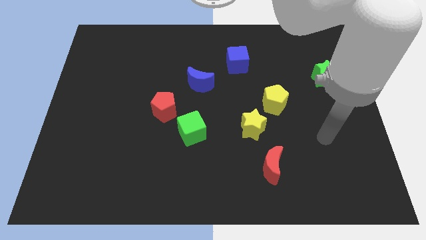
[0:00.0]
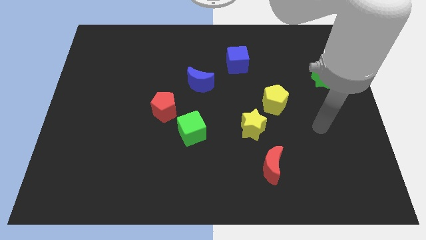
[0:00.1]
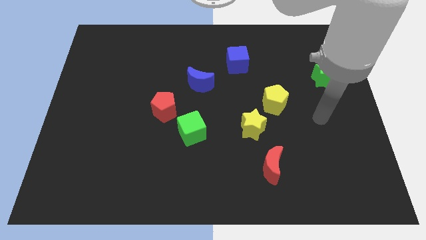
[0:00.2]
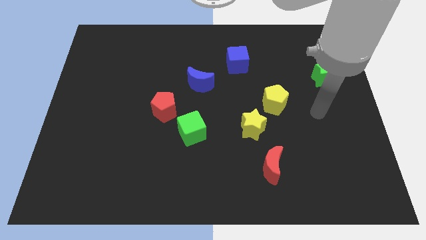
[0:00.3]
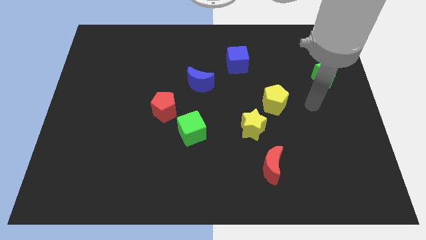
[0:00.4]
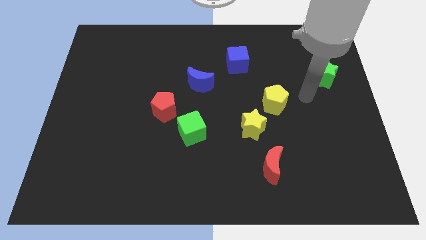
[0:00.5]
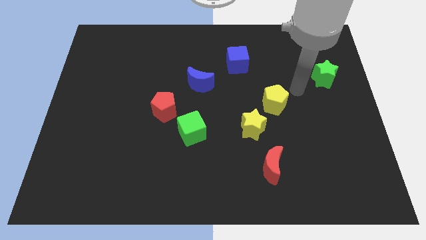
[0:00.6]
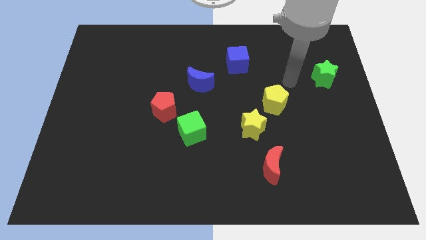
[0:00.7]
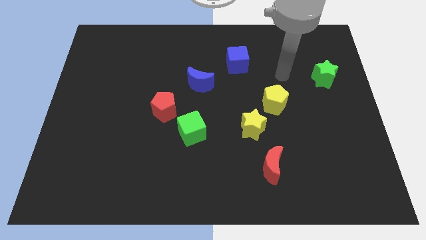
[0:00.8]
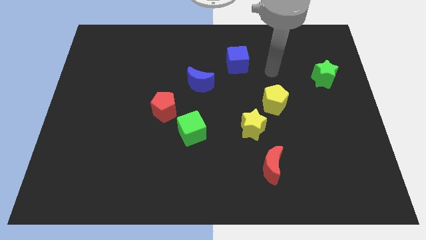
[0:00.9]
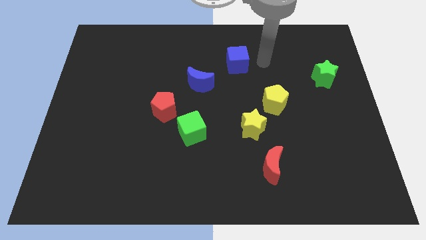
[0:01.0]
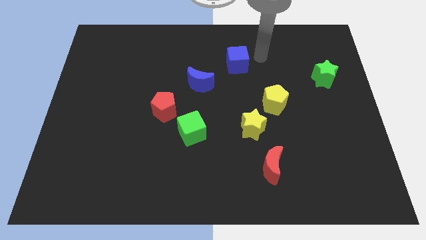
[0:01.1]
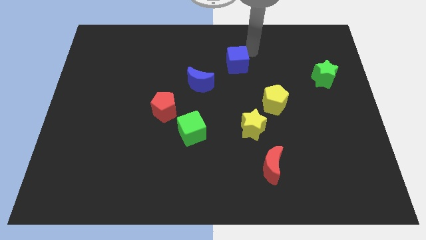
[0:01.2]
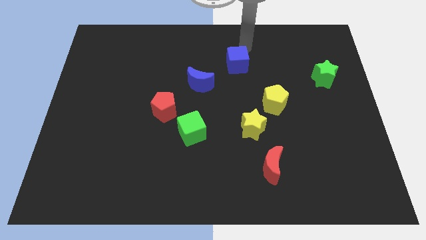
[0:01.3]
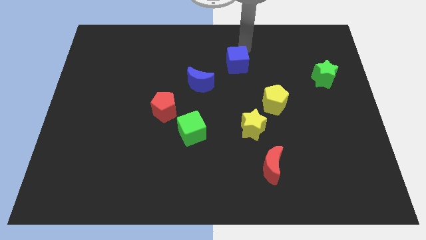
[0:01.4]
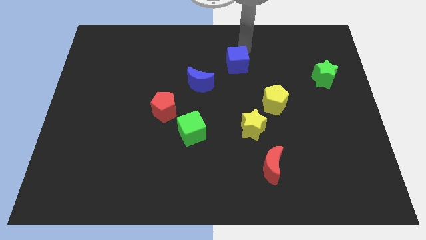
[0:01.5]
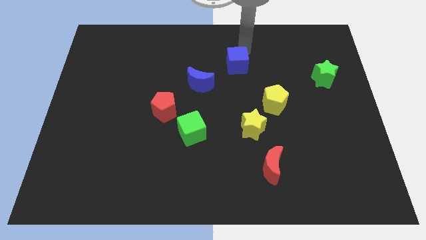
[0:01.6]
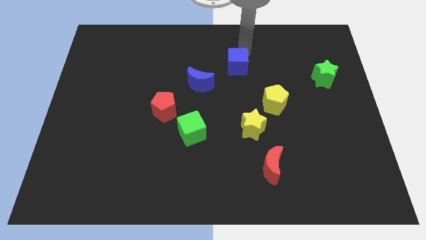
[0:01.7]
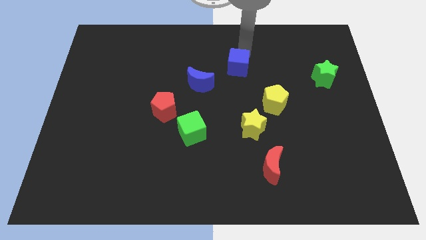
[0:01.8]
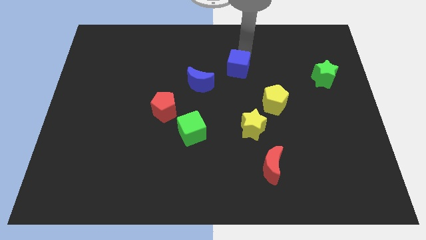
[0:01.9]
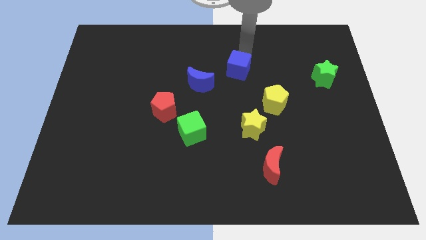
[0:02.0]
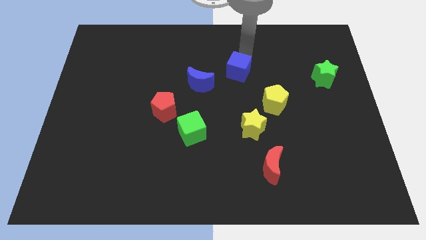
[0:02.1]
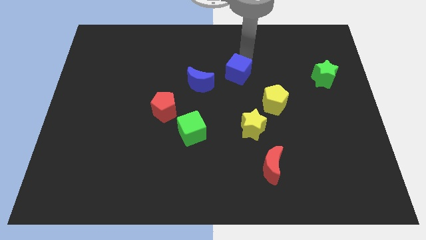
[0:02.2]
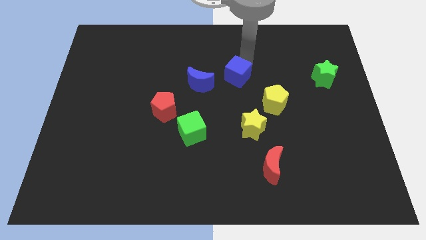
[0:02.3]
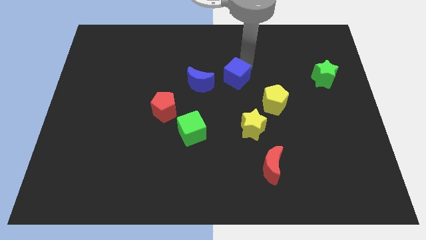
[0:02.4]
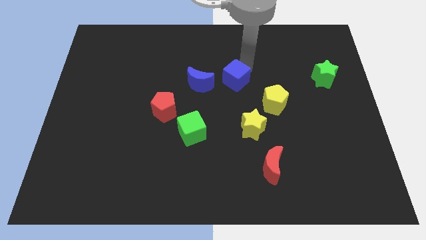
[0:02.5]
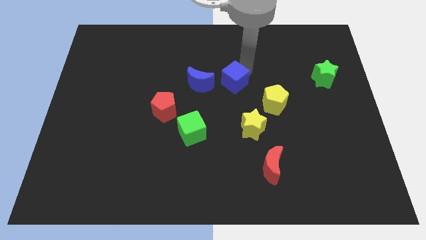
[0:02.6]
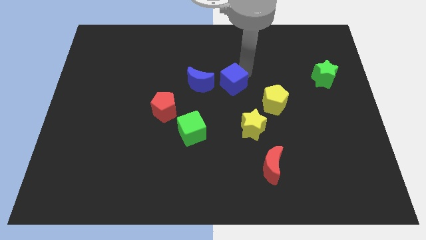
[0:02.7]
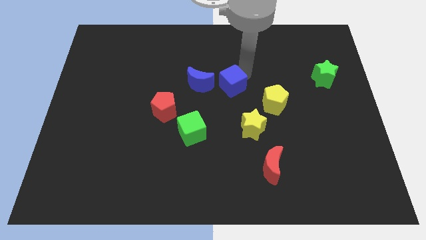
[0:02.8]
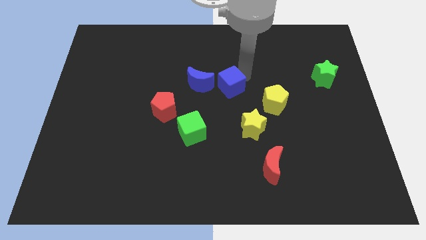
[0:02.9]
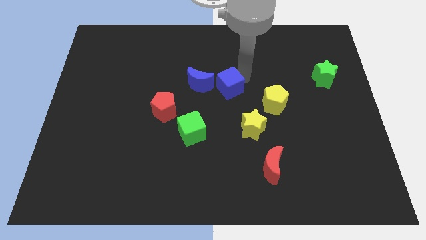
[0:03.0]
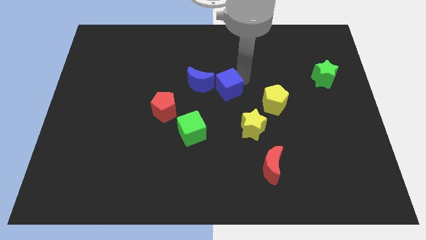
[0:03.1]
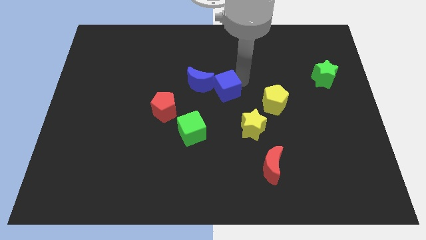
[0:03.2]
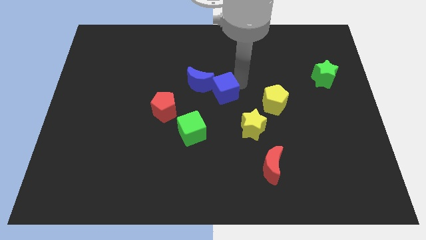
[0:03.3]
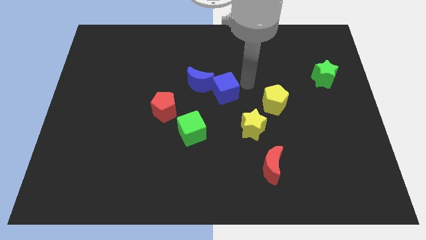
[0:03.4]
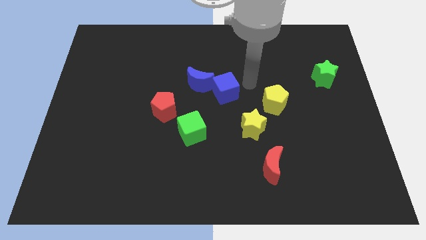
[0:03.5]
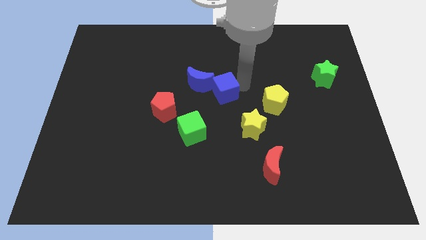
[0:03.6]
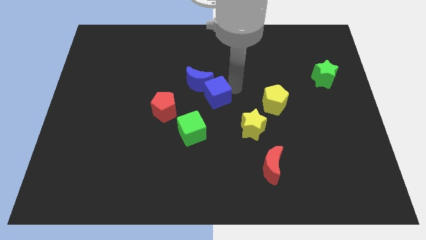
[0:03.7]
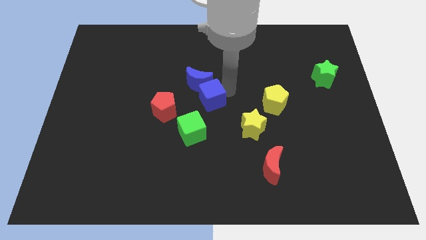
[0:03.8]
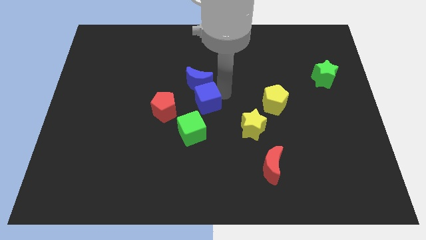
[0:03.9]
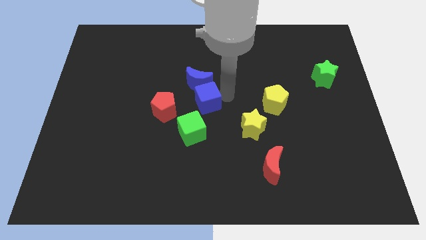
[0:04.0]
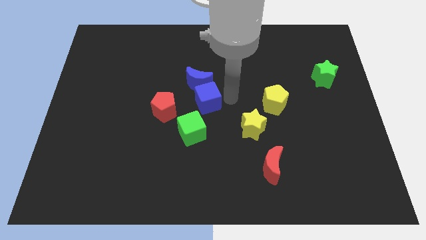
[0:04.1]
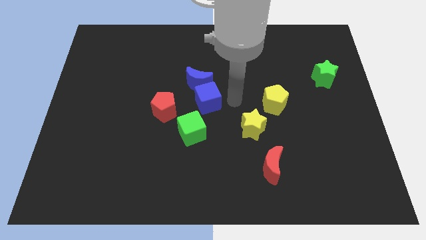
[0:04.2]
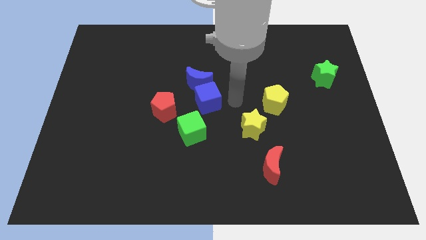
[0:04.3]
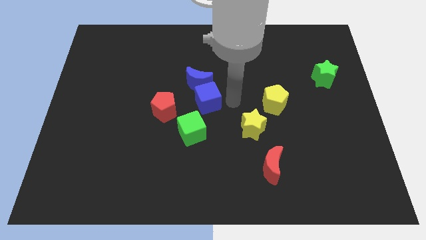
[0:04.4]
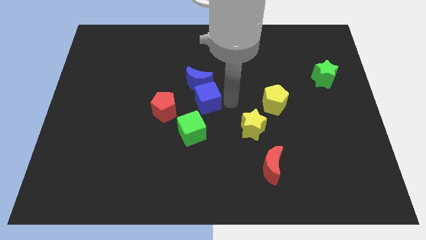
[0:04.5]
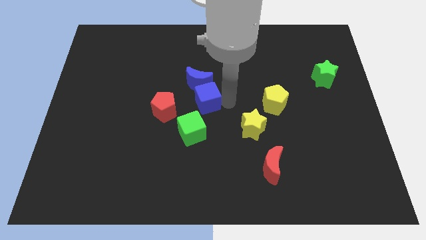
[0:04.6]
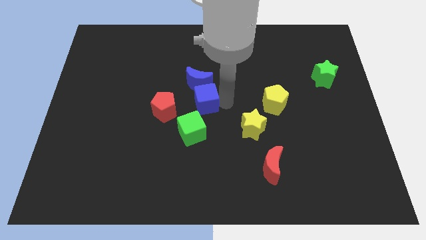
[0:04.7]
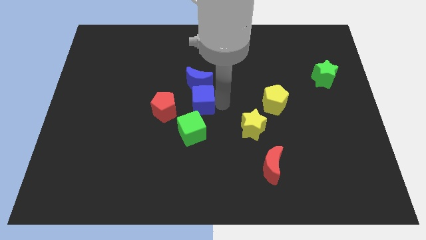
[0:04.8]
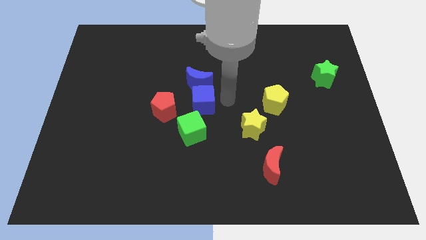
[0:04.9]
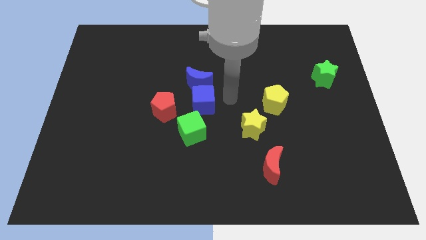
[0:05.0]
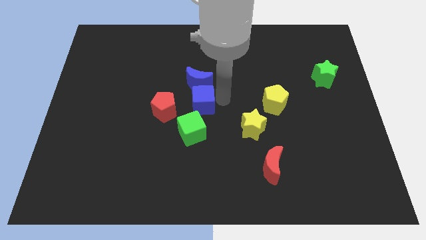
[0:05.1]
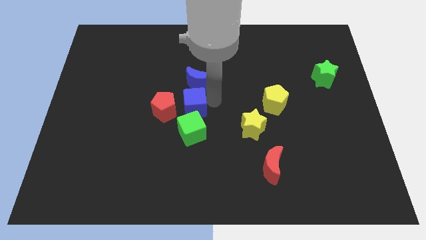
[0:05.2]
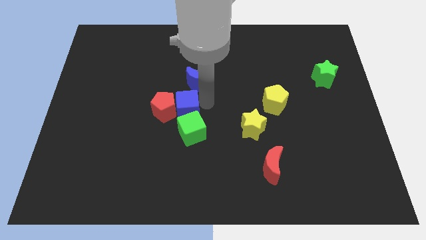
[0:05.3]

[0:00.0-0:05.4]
put the blue cube next to the red pentagon

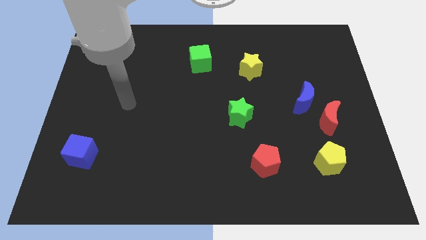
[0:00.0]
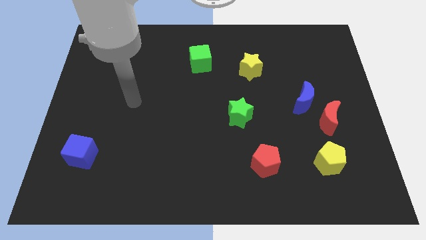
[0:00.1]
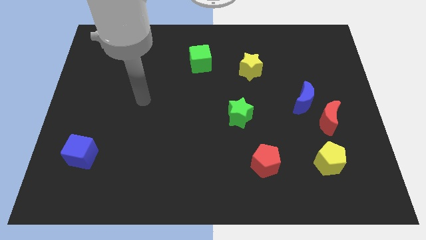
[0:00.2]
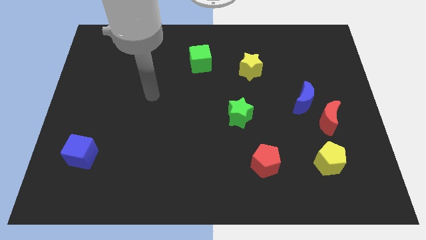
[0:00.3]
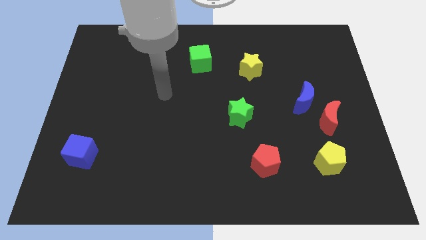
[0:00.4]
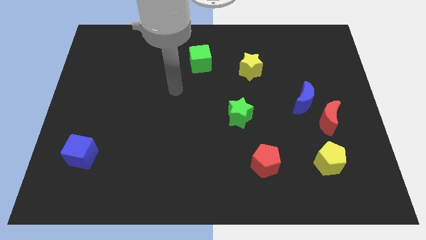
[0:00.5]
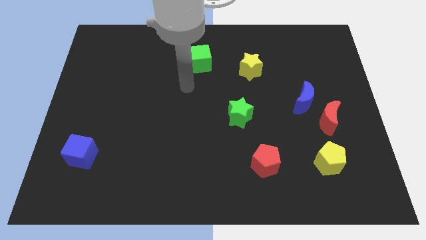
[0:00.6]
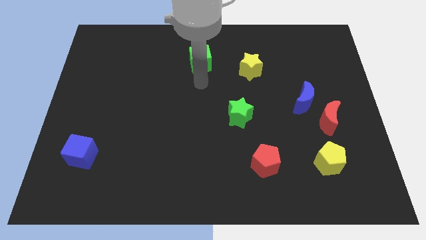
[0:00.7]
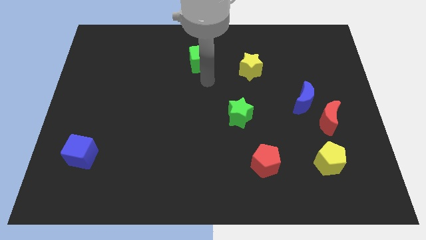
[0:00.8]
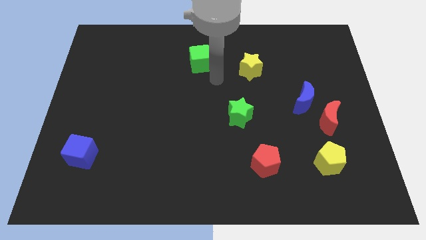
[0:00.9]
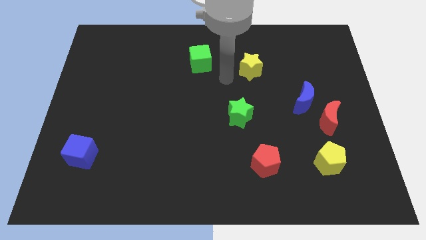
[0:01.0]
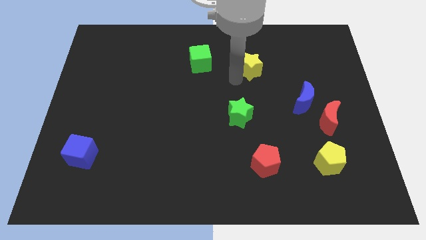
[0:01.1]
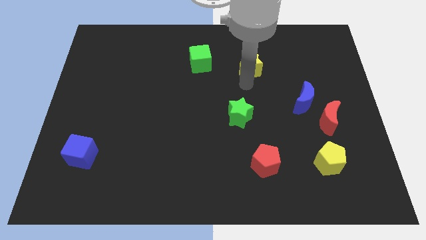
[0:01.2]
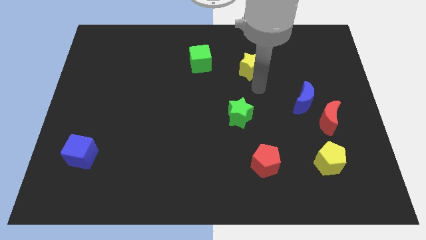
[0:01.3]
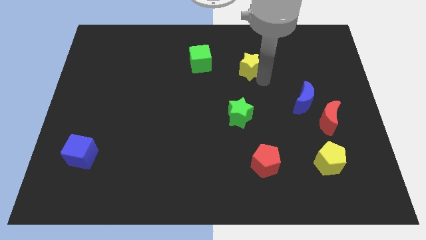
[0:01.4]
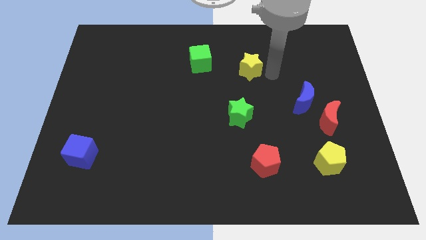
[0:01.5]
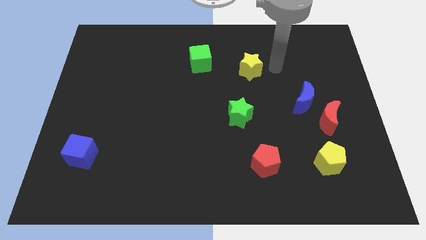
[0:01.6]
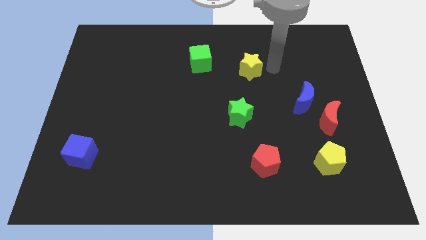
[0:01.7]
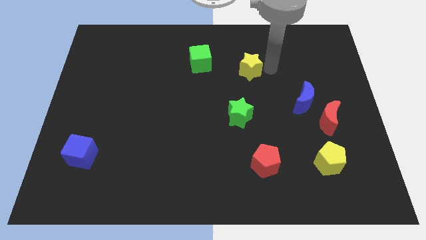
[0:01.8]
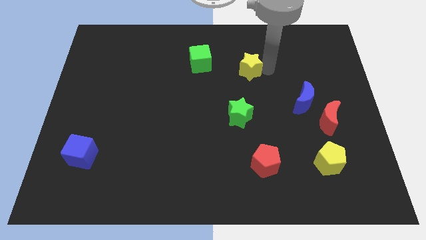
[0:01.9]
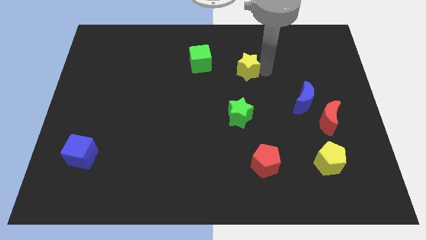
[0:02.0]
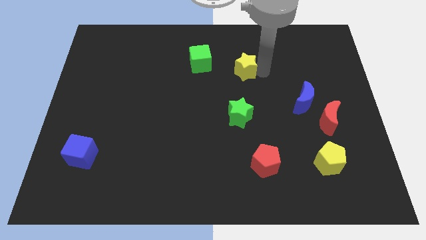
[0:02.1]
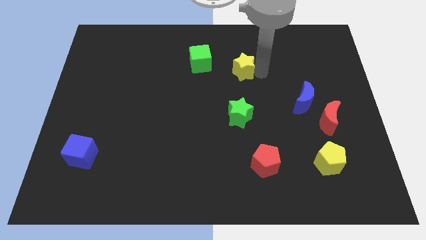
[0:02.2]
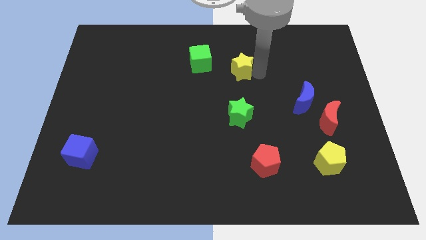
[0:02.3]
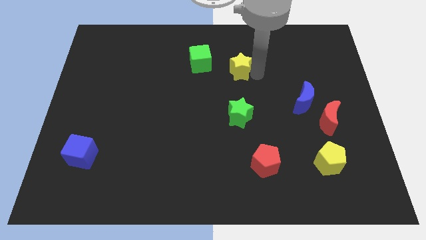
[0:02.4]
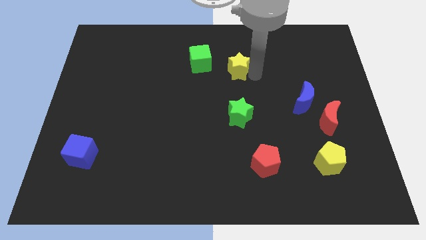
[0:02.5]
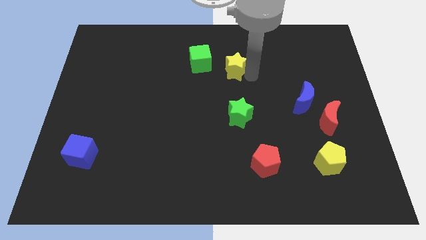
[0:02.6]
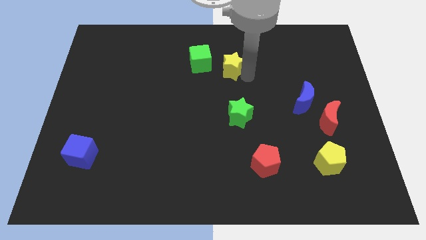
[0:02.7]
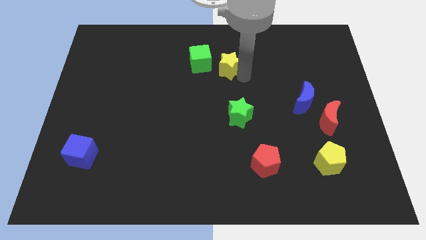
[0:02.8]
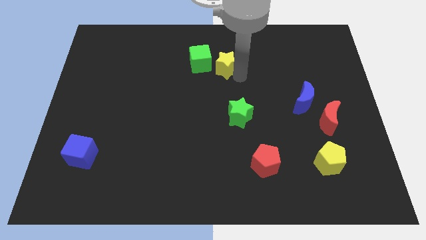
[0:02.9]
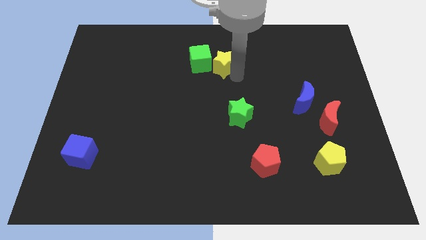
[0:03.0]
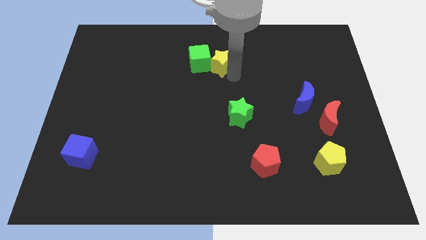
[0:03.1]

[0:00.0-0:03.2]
push the yellow star next to the green cube
